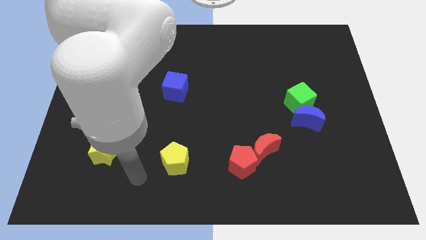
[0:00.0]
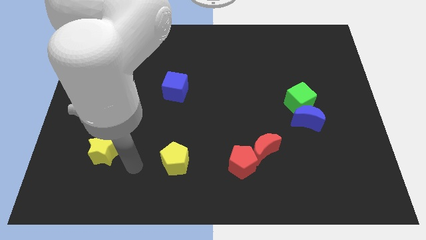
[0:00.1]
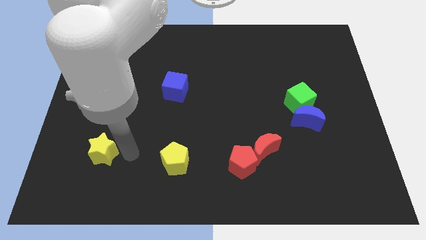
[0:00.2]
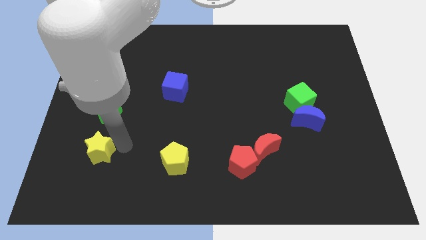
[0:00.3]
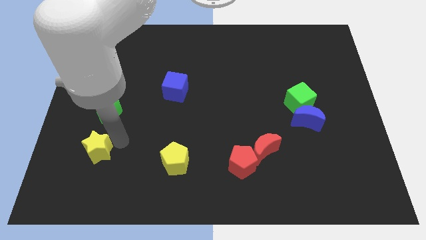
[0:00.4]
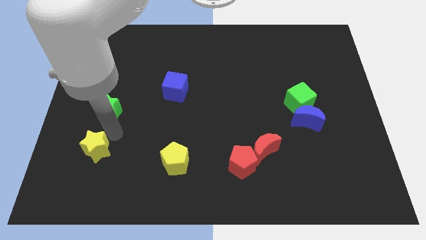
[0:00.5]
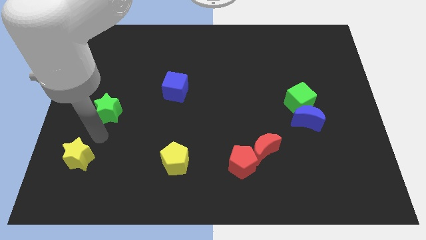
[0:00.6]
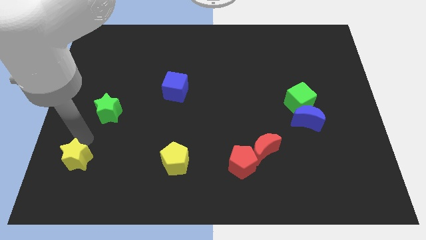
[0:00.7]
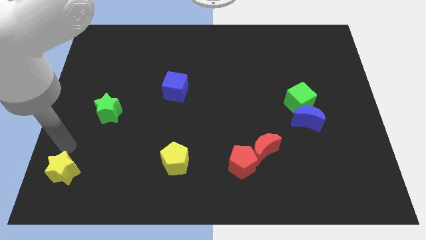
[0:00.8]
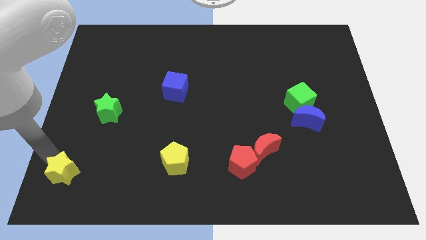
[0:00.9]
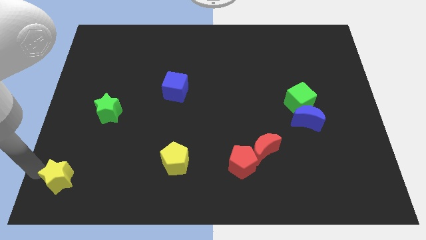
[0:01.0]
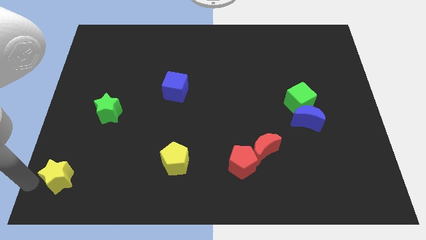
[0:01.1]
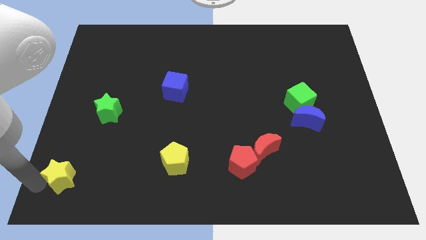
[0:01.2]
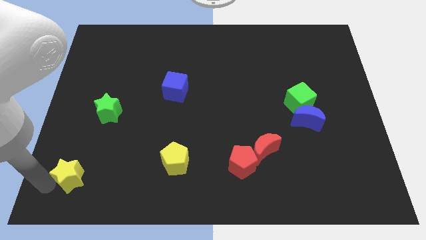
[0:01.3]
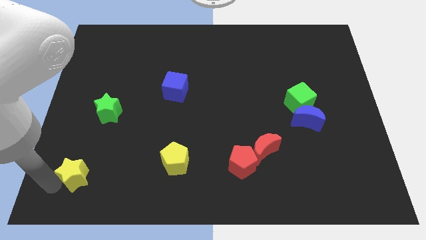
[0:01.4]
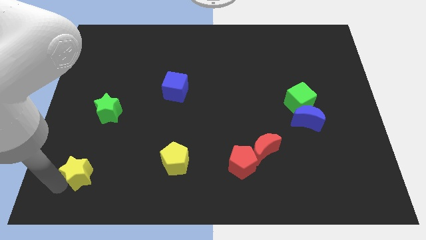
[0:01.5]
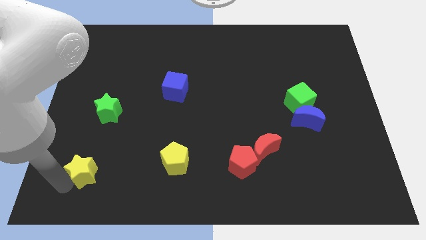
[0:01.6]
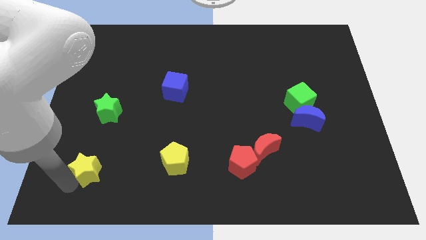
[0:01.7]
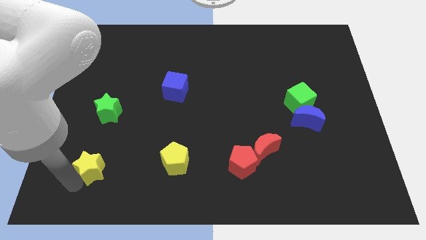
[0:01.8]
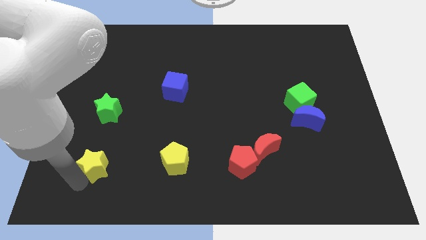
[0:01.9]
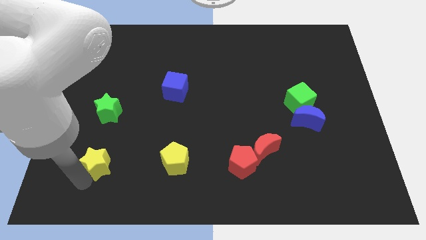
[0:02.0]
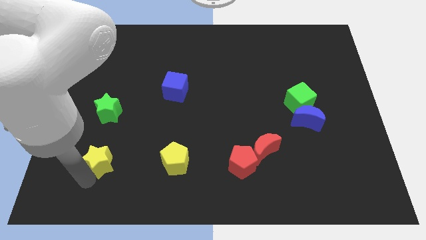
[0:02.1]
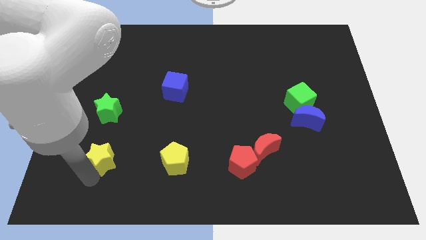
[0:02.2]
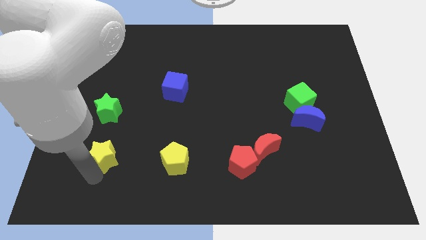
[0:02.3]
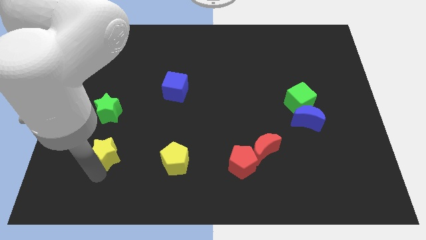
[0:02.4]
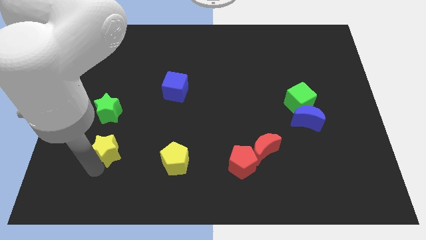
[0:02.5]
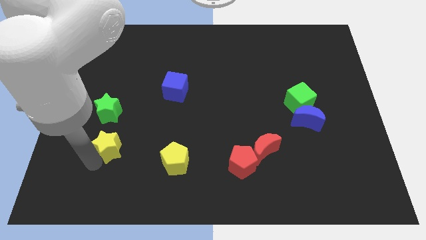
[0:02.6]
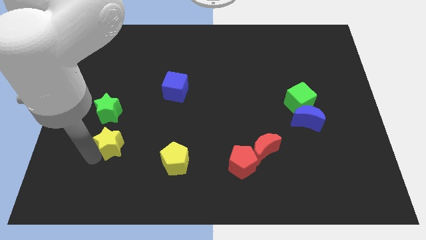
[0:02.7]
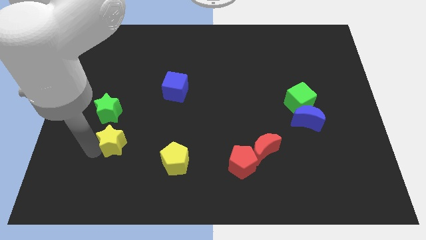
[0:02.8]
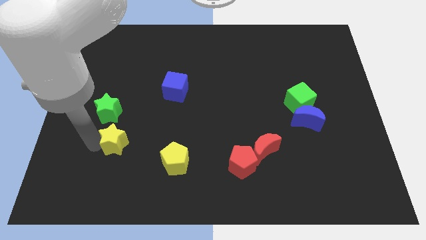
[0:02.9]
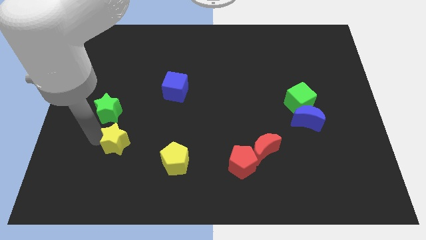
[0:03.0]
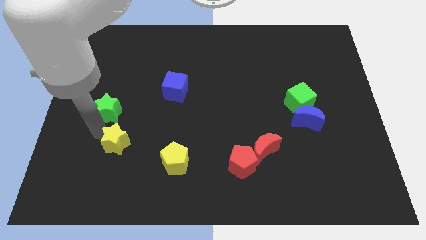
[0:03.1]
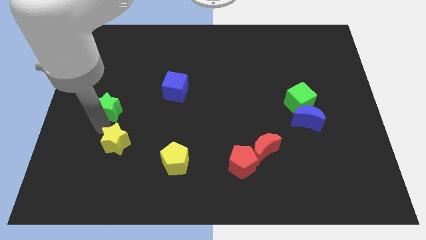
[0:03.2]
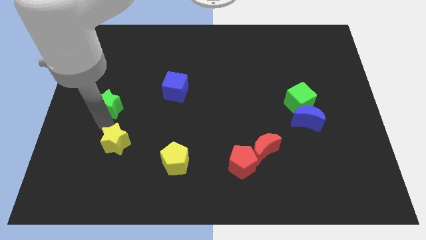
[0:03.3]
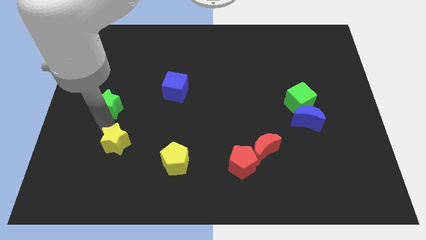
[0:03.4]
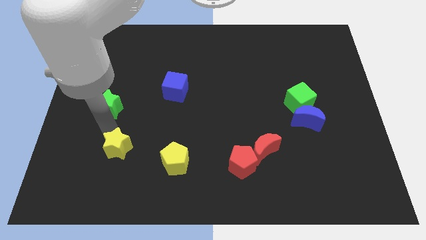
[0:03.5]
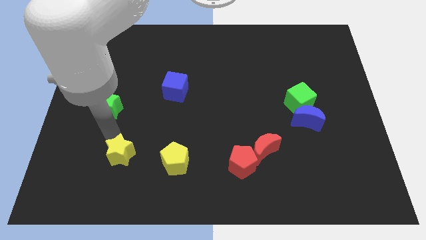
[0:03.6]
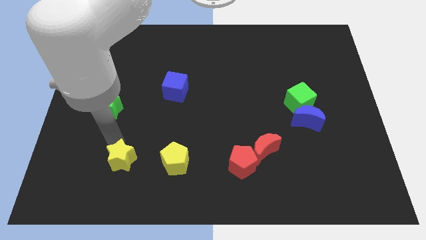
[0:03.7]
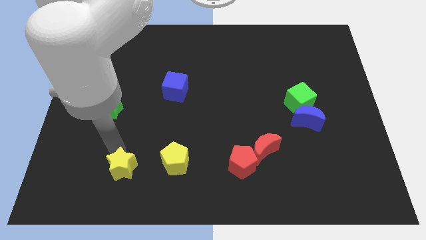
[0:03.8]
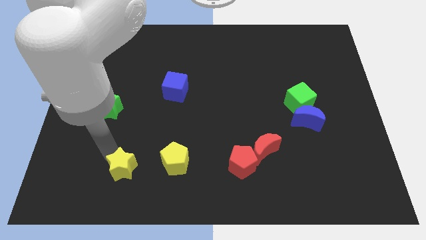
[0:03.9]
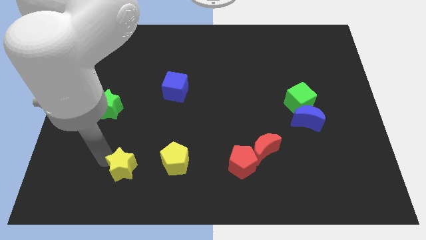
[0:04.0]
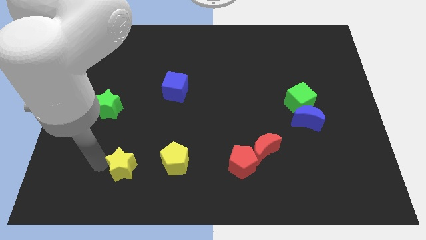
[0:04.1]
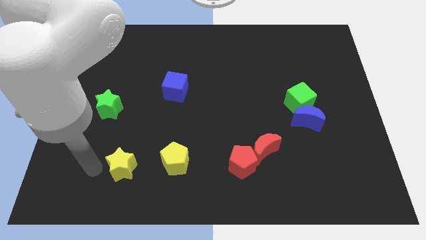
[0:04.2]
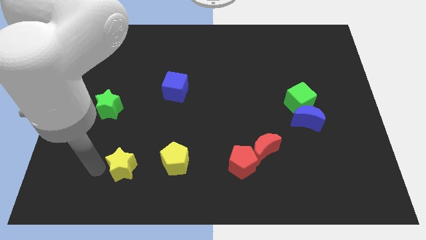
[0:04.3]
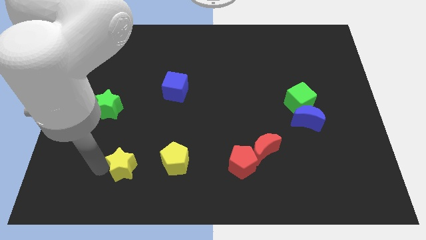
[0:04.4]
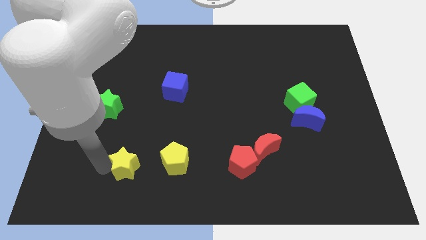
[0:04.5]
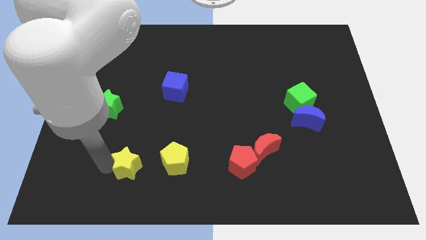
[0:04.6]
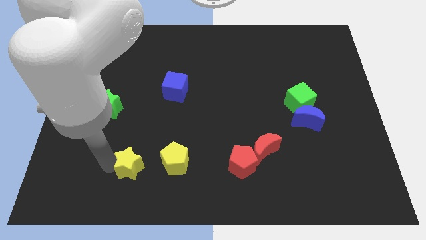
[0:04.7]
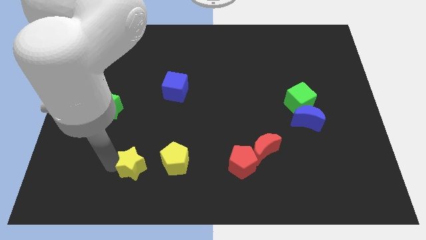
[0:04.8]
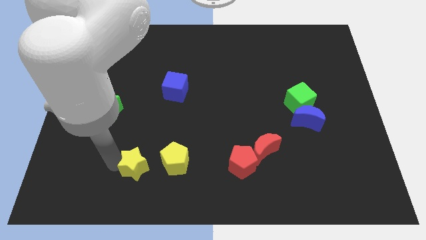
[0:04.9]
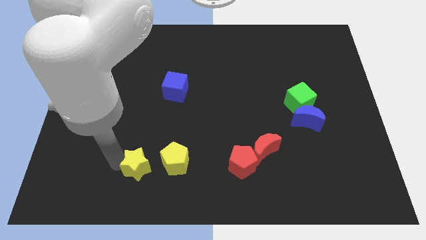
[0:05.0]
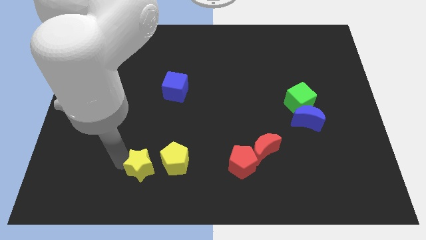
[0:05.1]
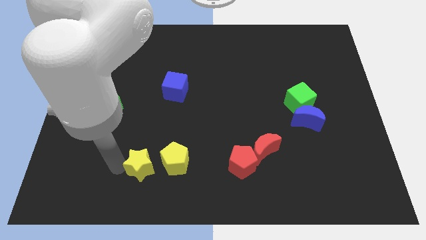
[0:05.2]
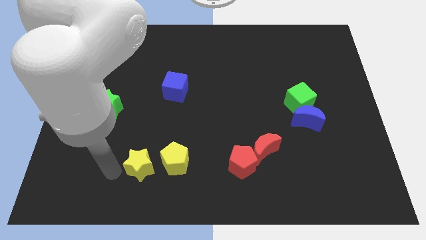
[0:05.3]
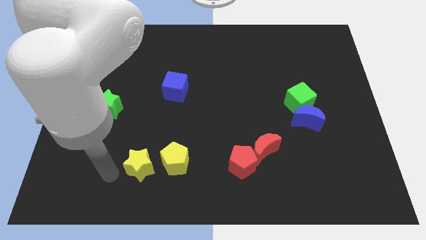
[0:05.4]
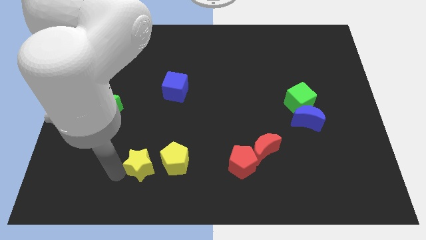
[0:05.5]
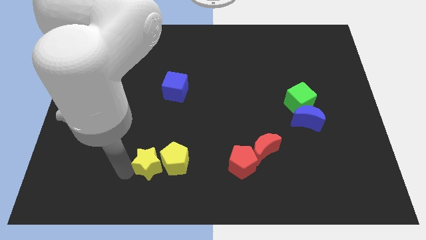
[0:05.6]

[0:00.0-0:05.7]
move the yellow star close to the yellow pentagon

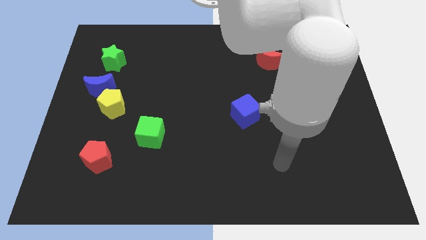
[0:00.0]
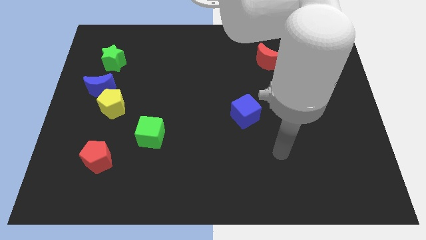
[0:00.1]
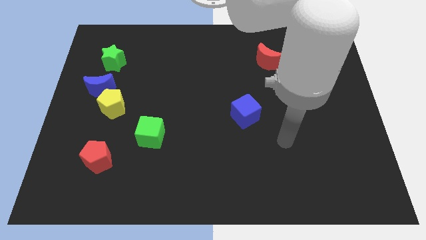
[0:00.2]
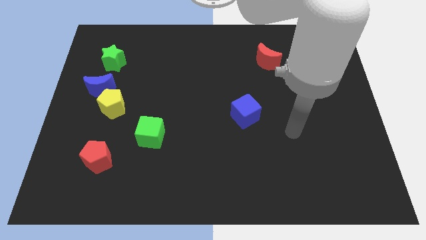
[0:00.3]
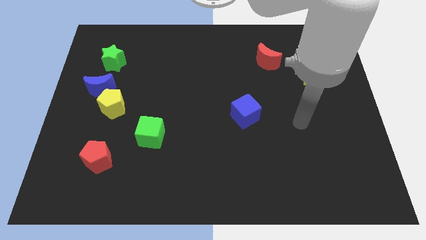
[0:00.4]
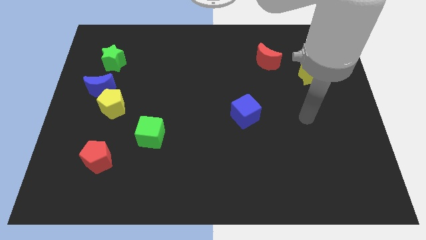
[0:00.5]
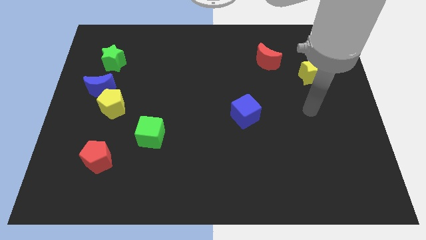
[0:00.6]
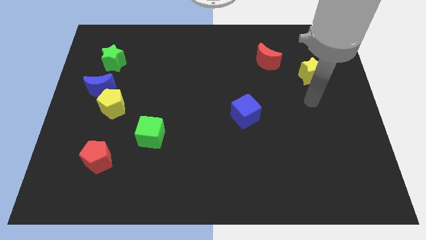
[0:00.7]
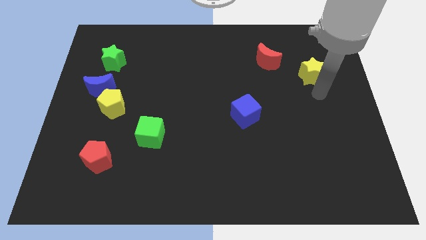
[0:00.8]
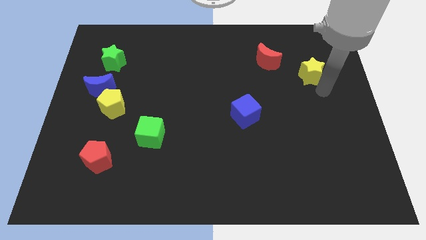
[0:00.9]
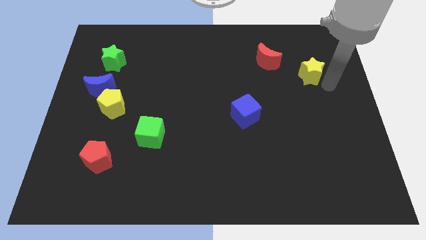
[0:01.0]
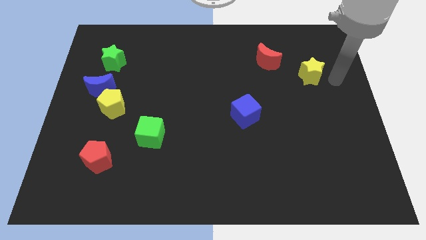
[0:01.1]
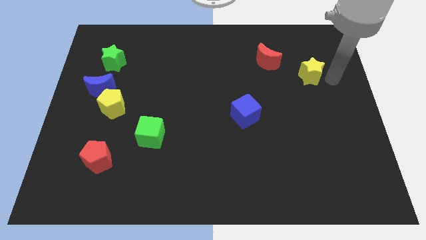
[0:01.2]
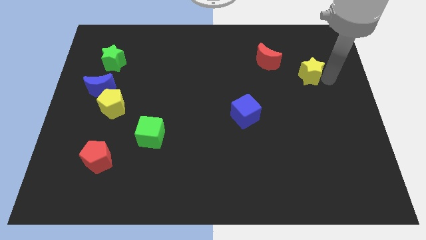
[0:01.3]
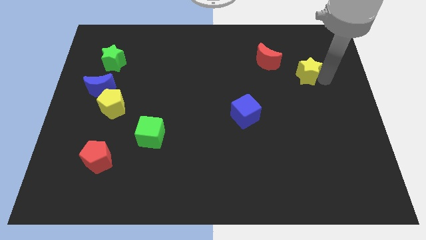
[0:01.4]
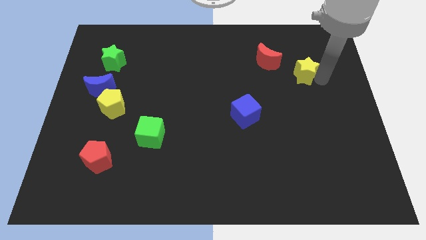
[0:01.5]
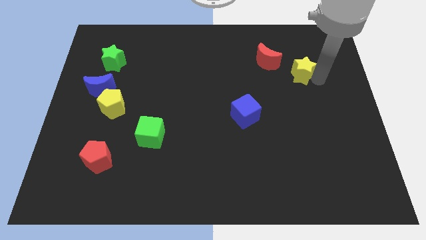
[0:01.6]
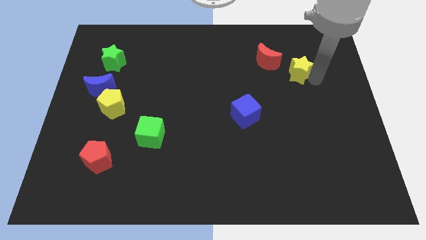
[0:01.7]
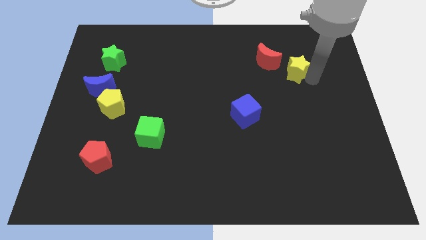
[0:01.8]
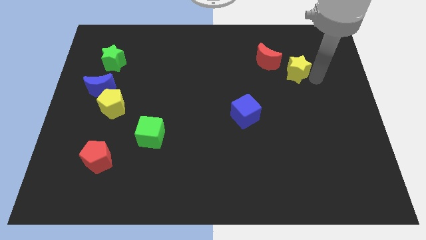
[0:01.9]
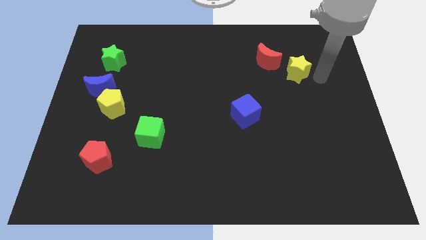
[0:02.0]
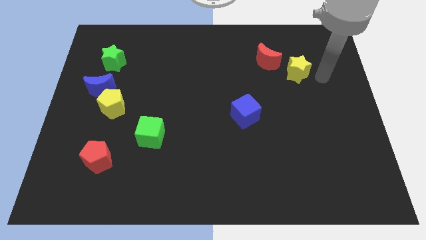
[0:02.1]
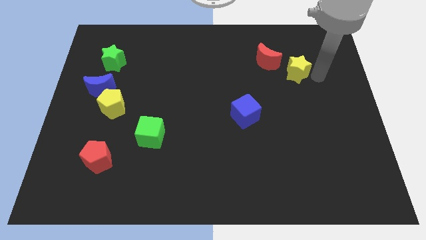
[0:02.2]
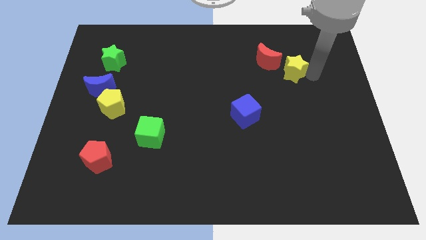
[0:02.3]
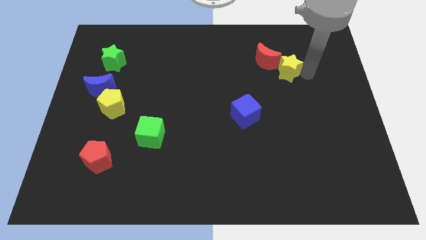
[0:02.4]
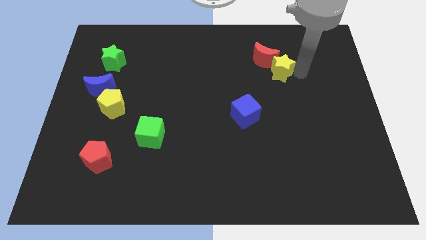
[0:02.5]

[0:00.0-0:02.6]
slide the yellow star next to the red moon
